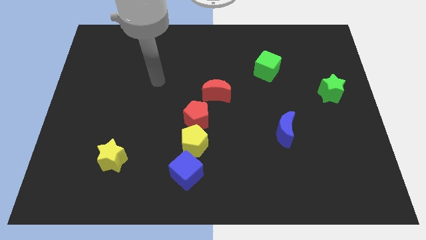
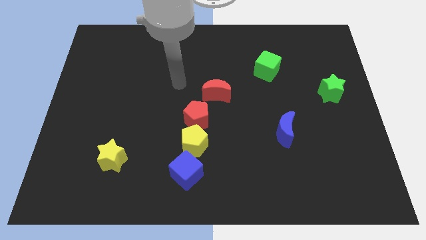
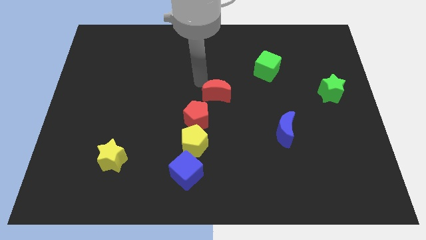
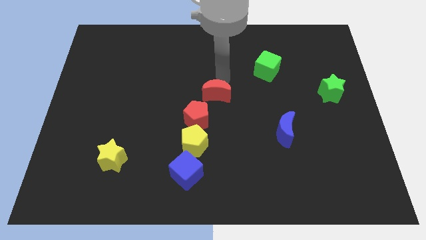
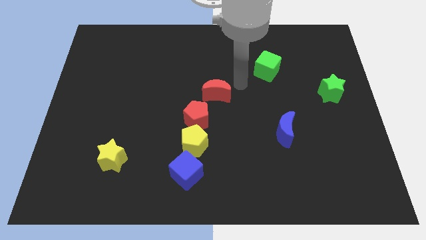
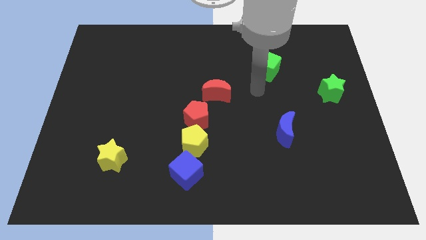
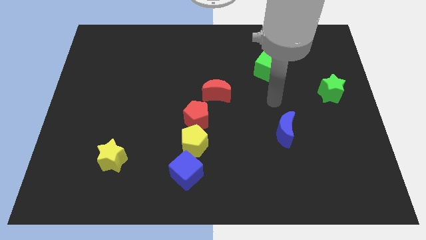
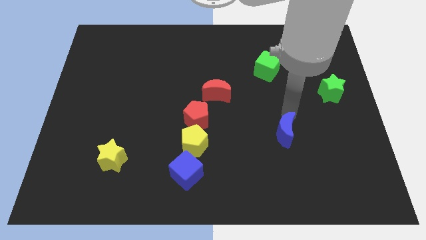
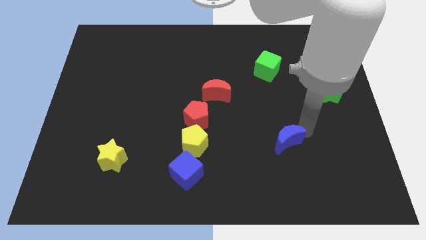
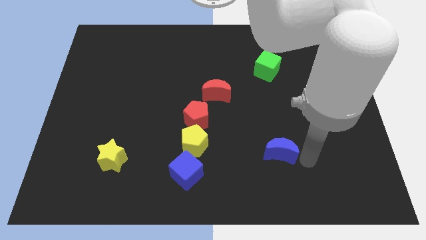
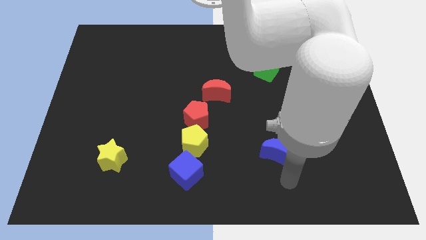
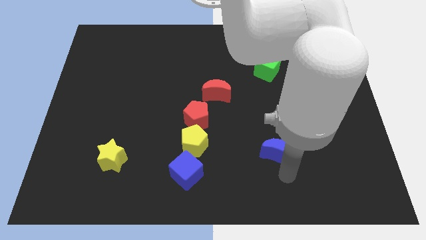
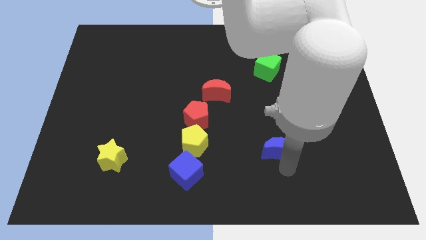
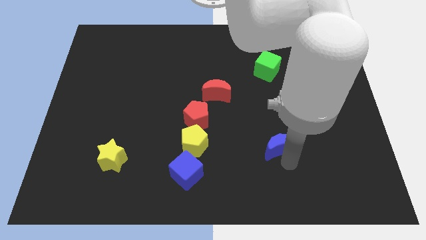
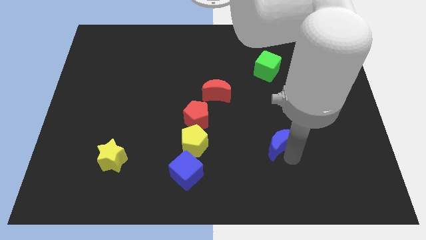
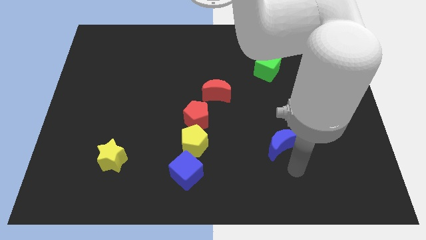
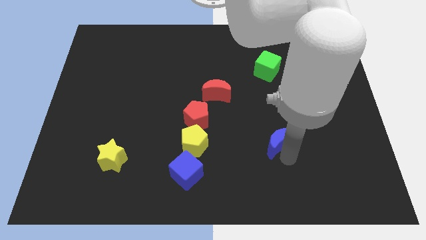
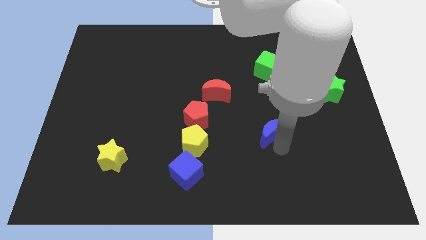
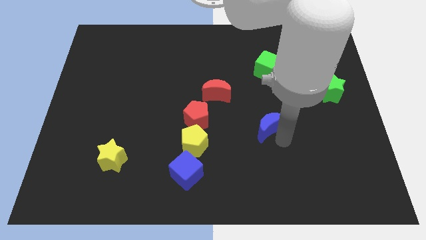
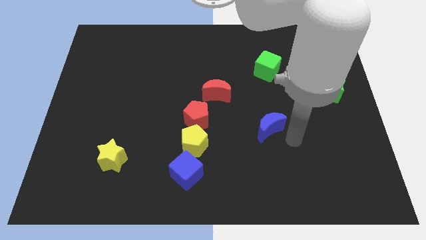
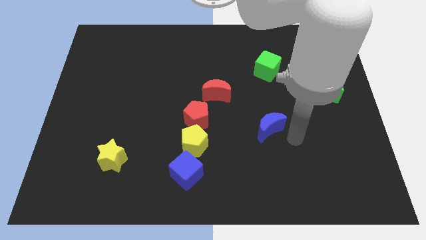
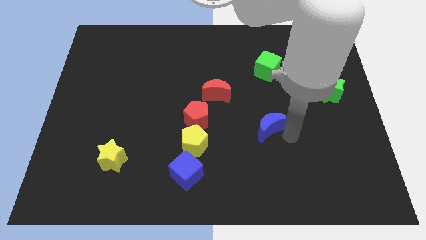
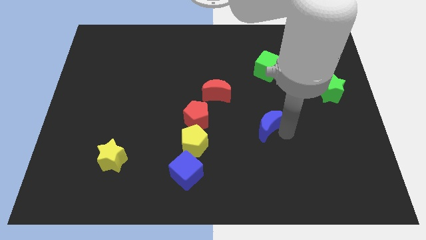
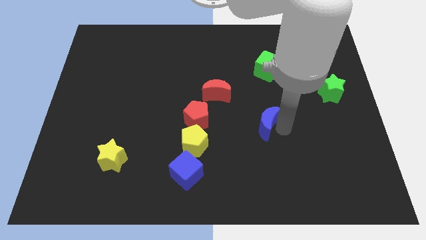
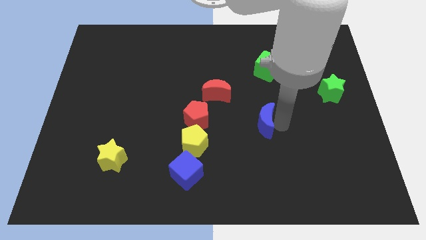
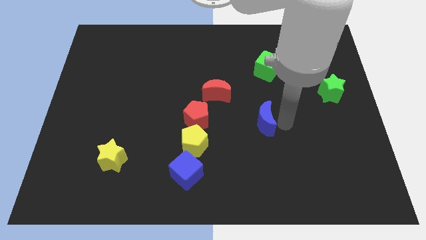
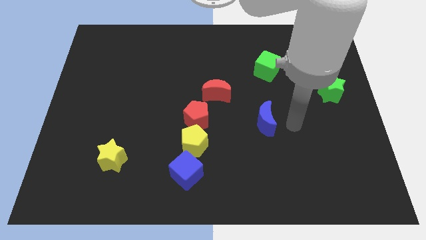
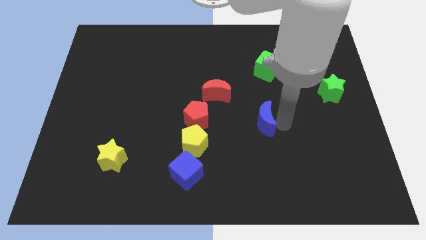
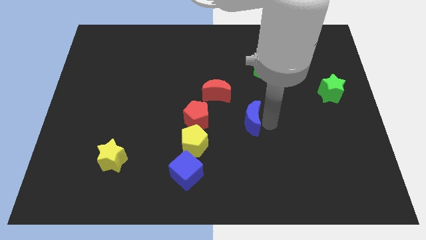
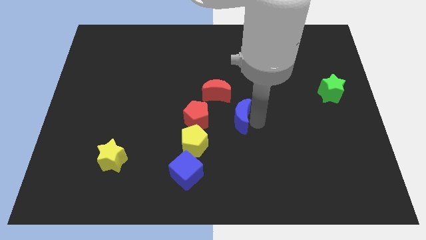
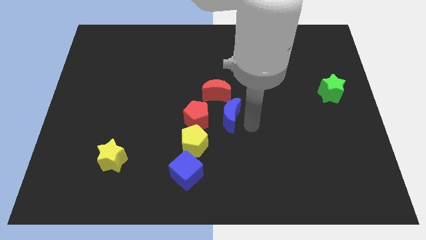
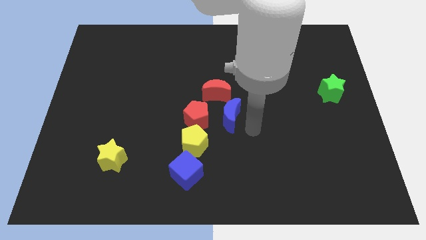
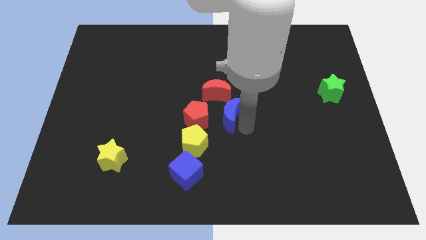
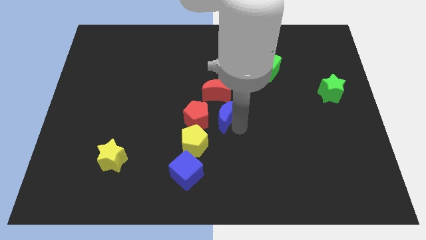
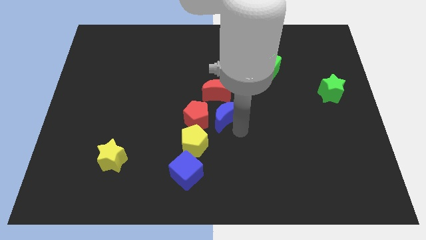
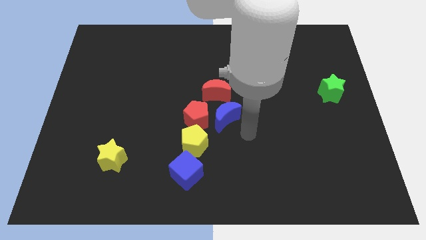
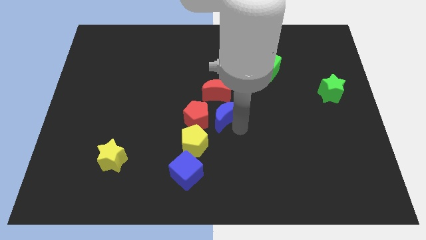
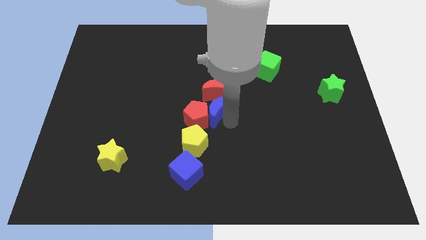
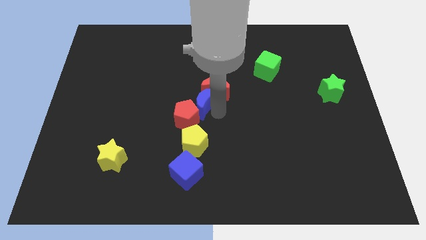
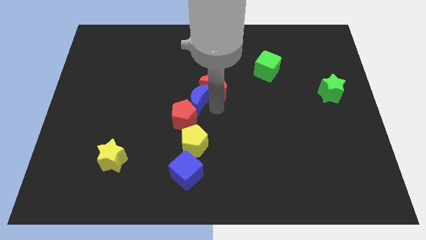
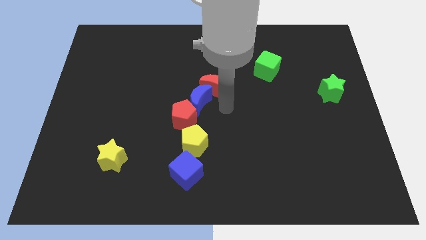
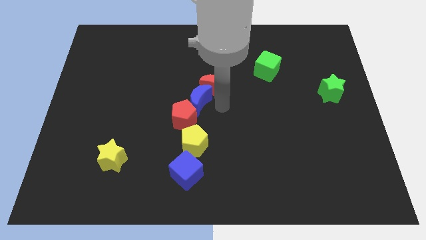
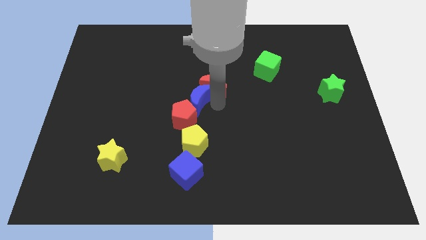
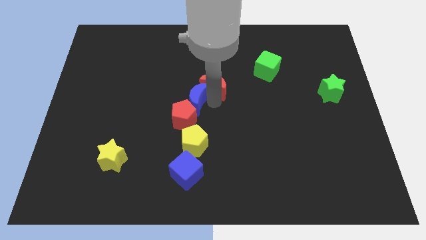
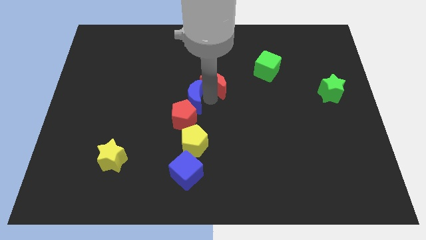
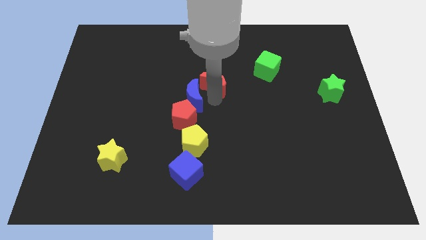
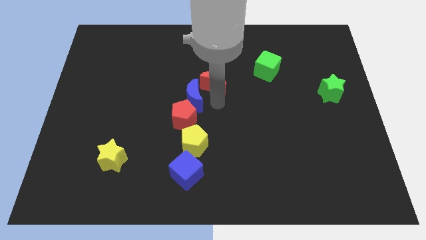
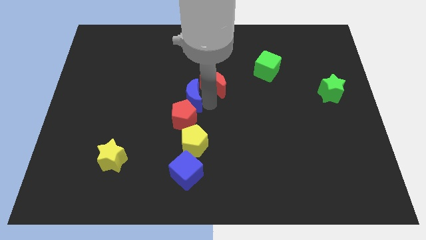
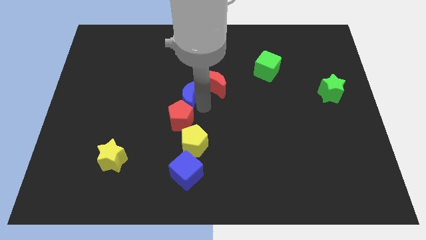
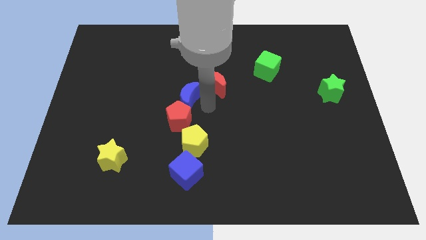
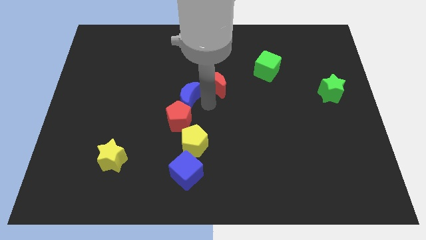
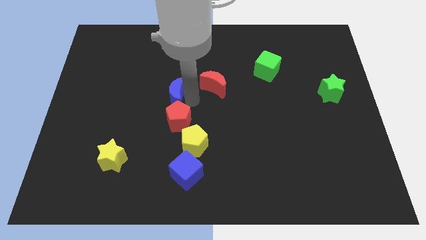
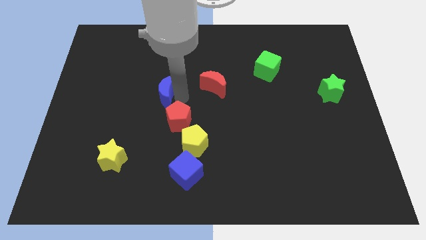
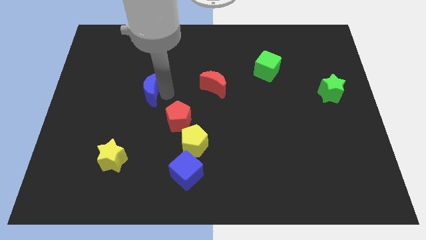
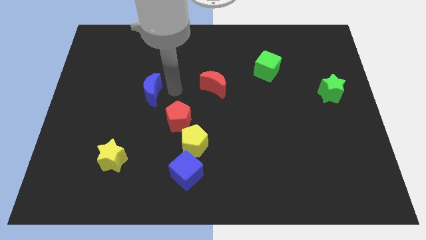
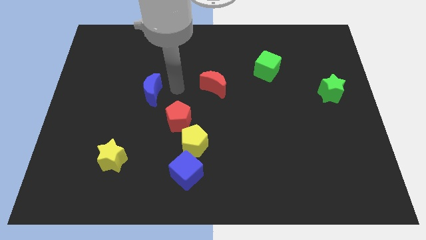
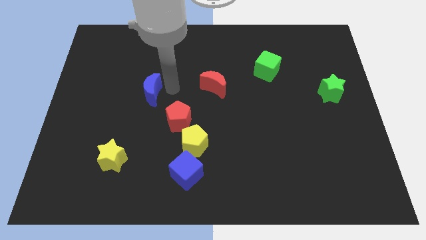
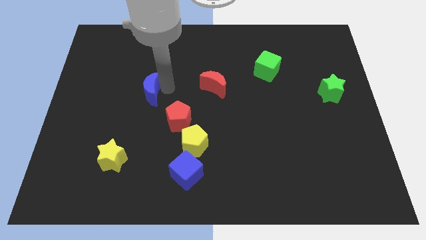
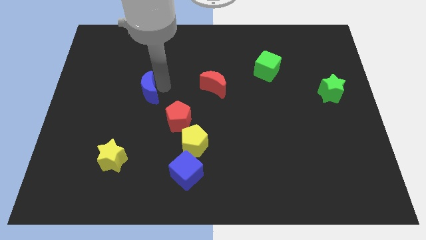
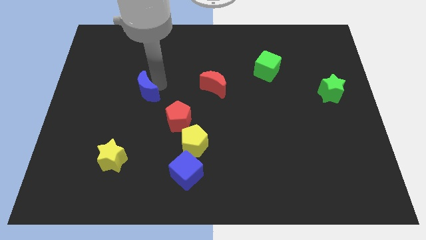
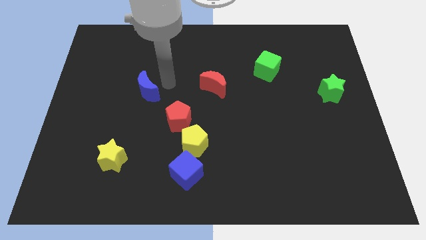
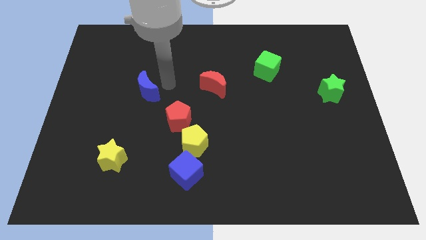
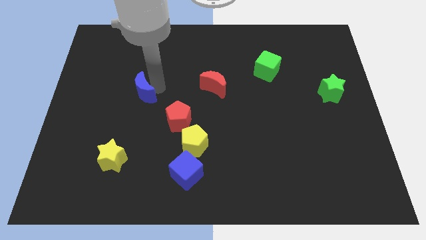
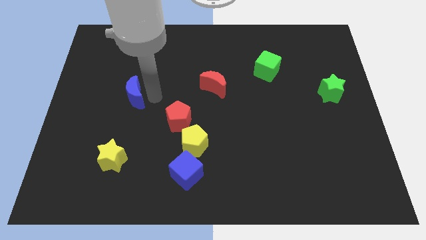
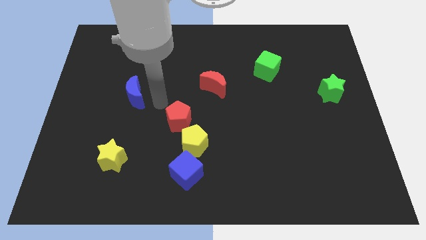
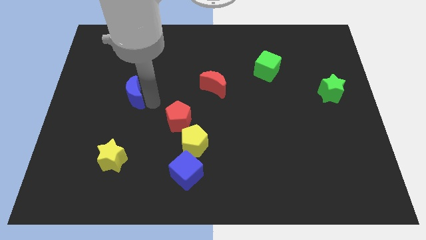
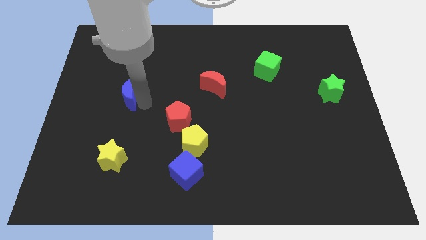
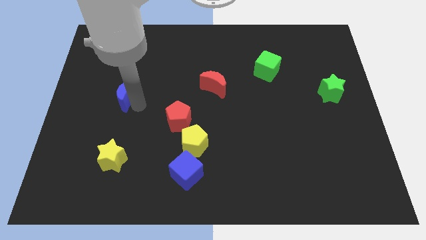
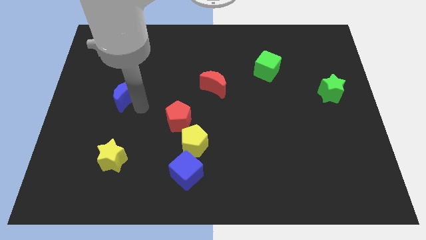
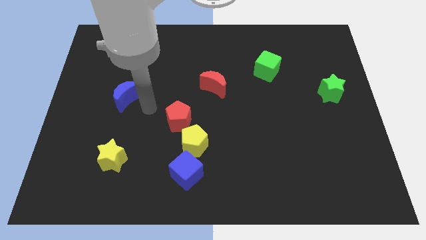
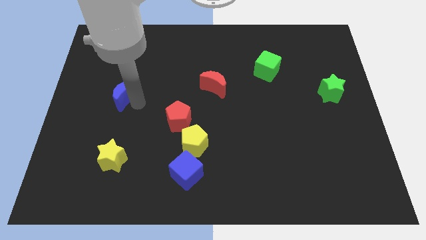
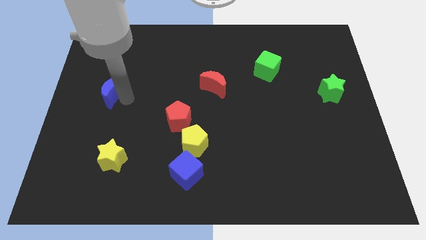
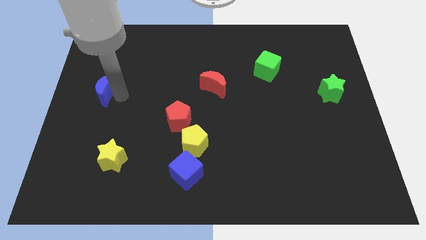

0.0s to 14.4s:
push the blue moon to the center left
